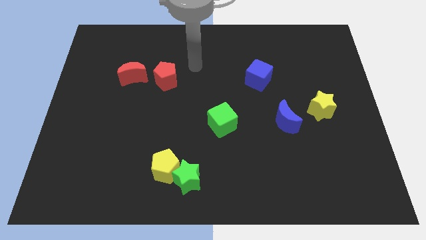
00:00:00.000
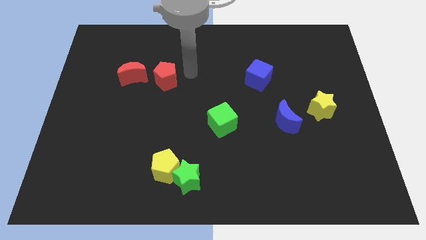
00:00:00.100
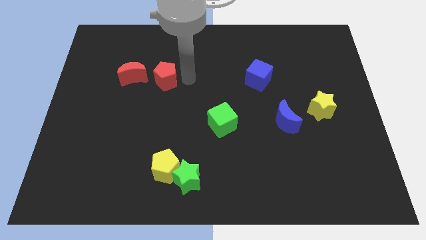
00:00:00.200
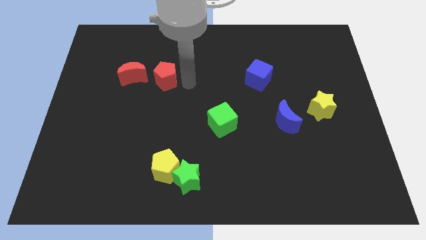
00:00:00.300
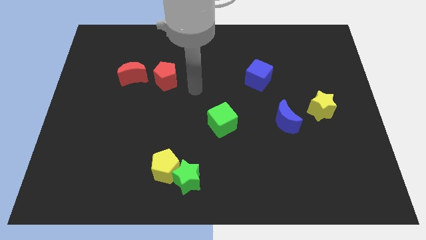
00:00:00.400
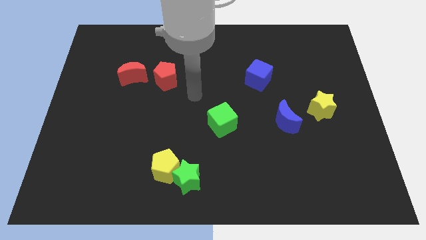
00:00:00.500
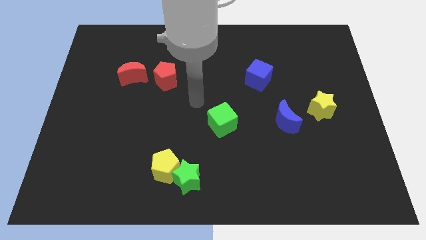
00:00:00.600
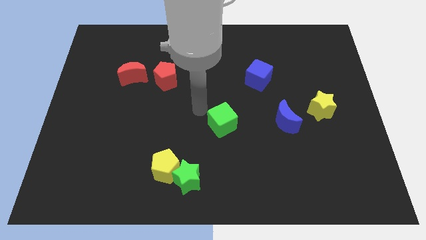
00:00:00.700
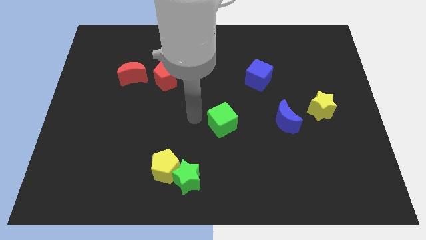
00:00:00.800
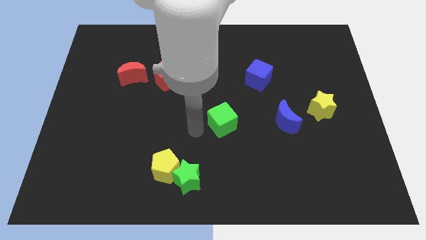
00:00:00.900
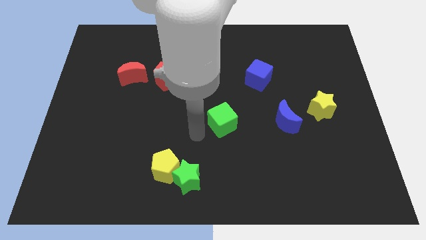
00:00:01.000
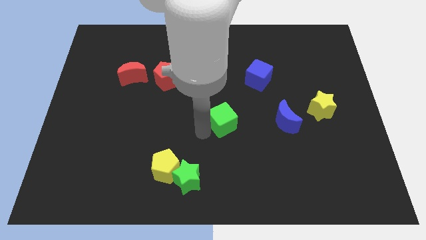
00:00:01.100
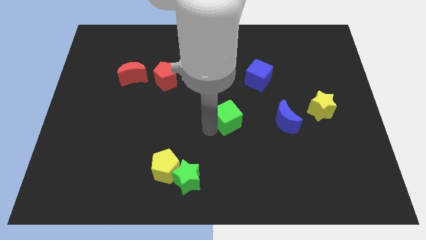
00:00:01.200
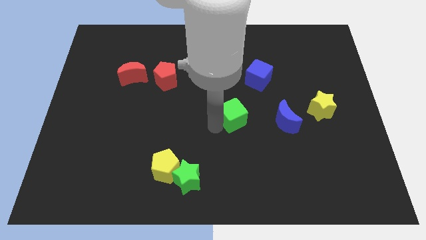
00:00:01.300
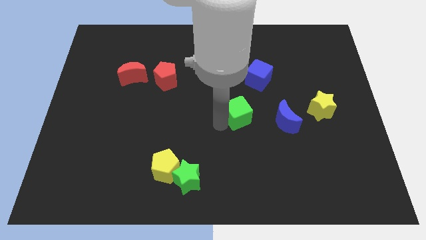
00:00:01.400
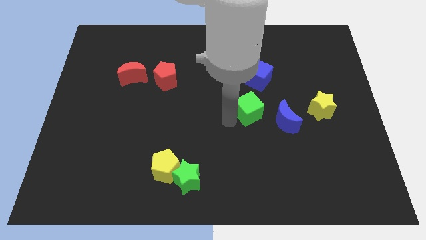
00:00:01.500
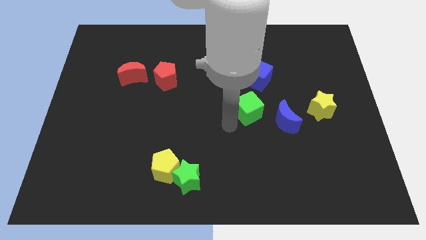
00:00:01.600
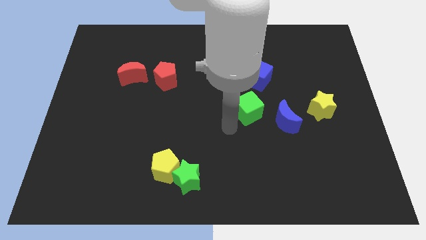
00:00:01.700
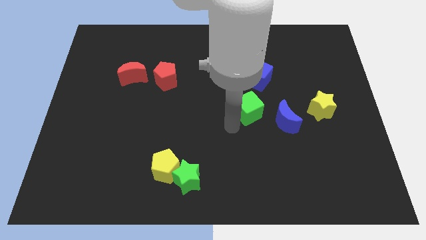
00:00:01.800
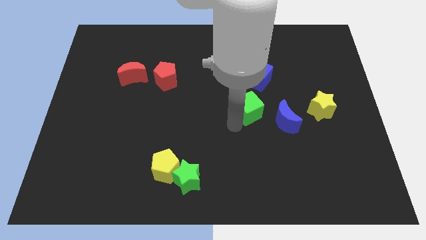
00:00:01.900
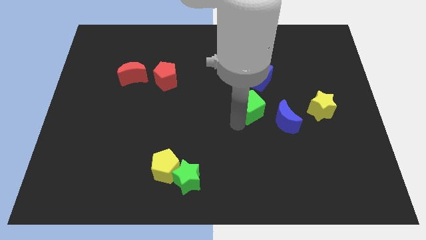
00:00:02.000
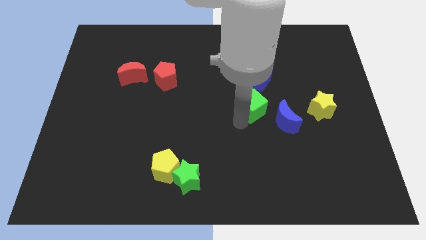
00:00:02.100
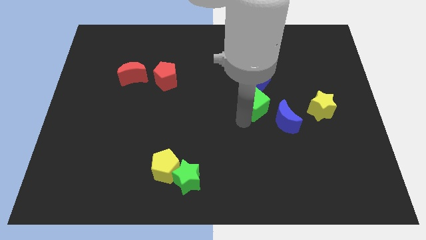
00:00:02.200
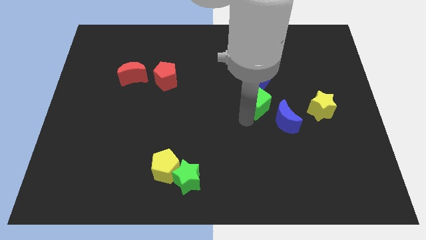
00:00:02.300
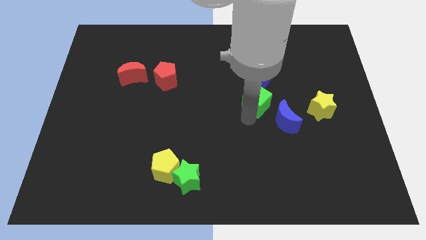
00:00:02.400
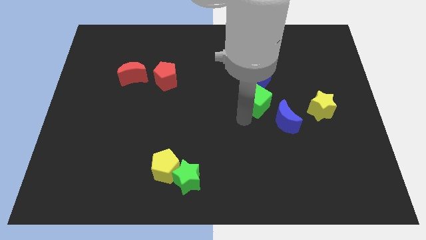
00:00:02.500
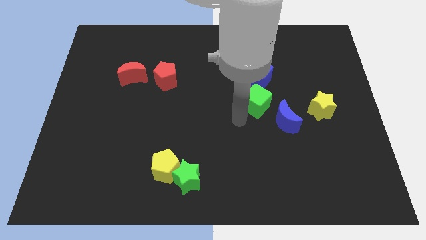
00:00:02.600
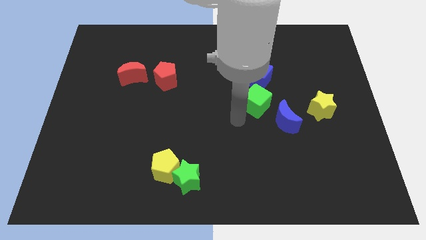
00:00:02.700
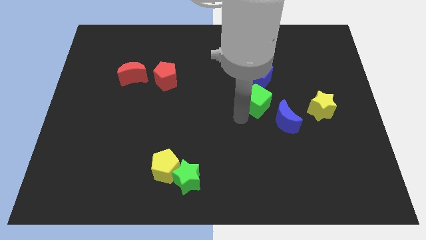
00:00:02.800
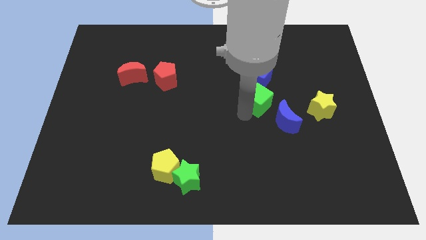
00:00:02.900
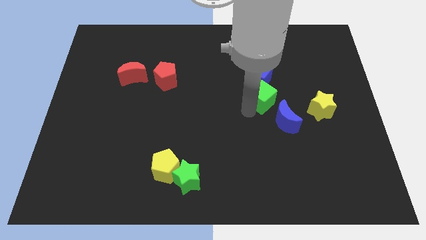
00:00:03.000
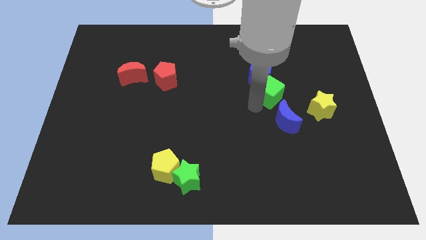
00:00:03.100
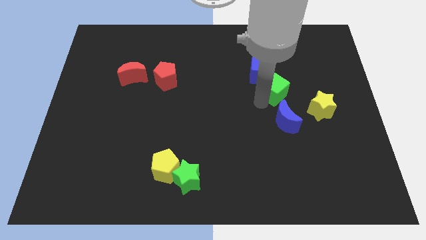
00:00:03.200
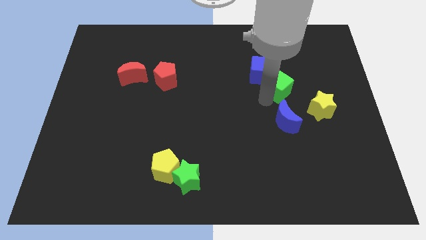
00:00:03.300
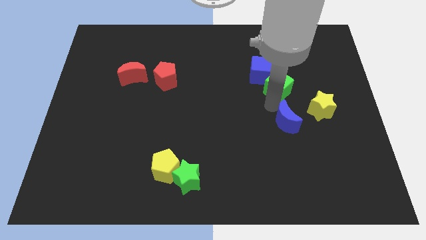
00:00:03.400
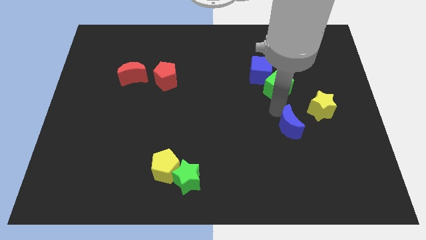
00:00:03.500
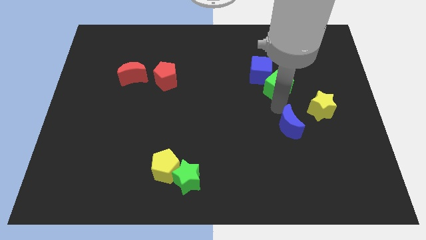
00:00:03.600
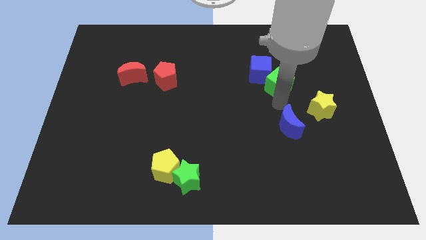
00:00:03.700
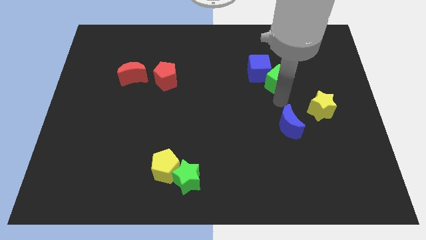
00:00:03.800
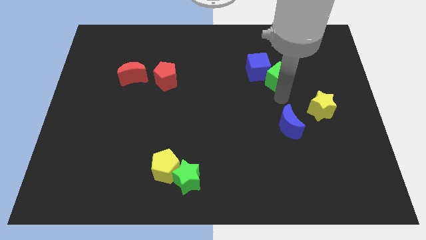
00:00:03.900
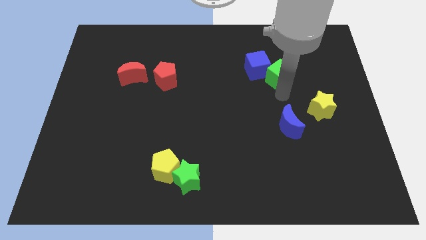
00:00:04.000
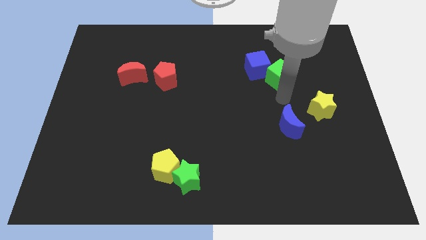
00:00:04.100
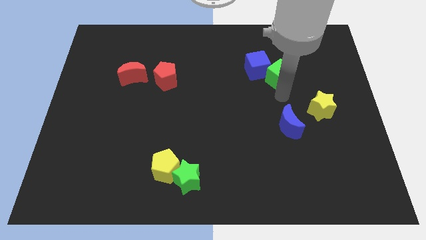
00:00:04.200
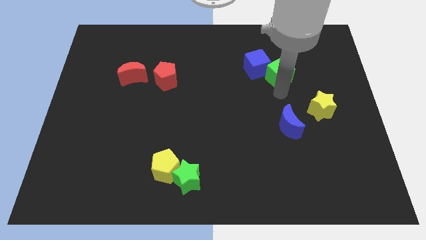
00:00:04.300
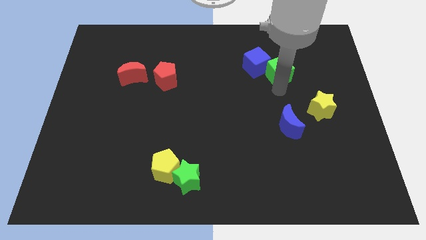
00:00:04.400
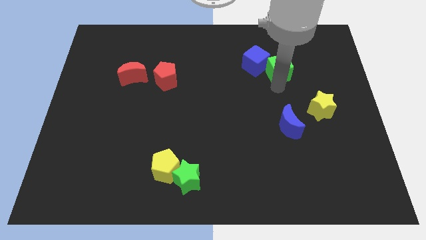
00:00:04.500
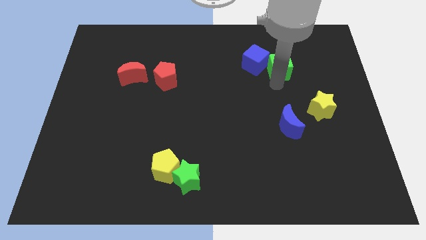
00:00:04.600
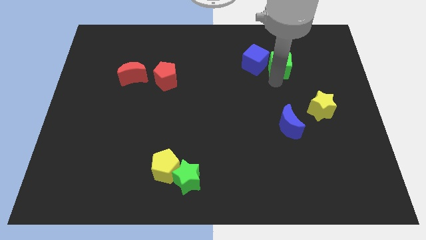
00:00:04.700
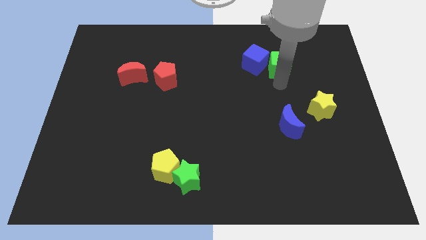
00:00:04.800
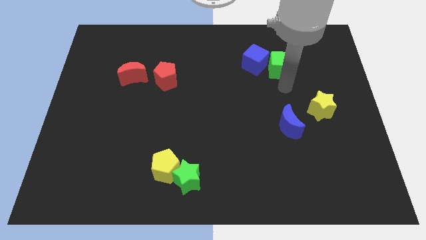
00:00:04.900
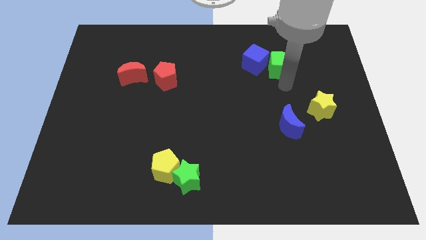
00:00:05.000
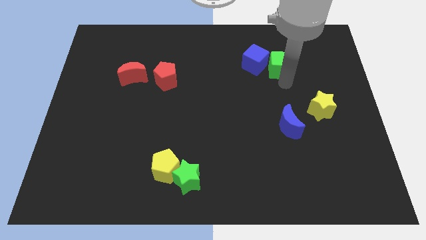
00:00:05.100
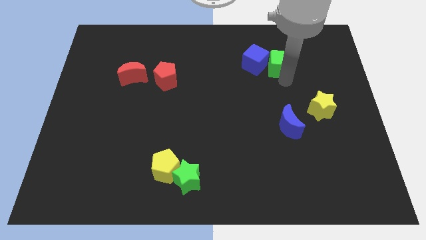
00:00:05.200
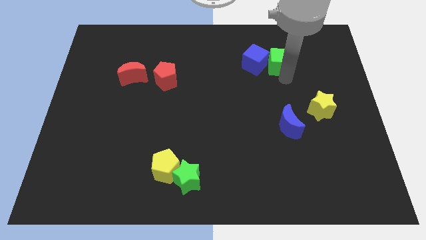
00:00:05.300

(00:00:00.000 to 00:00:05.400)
push the green cube to the top right of the blue cube

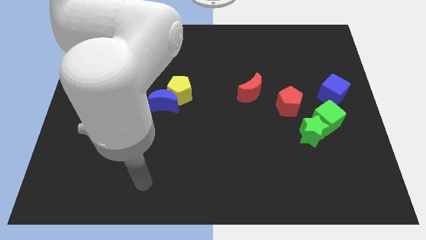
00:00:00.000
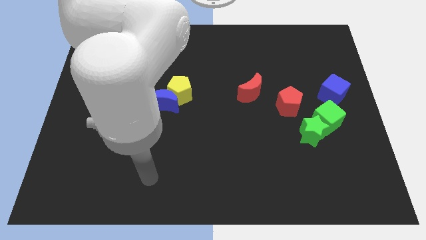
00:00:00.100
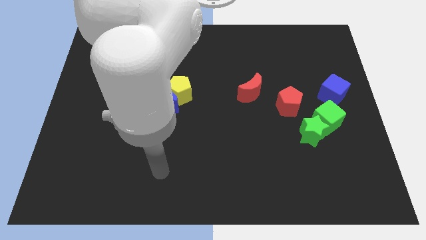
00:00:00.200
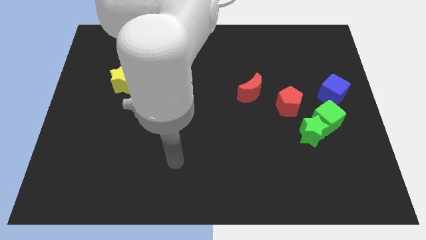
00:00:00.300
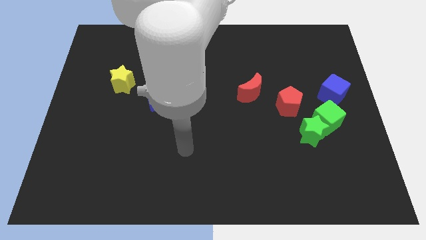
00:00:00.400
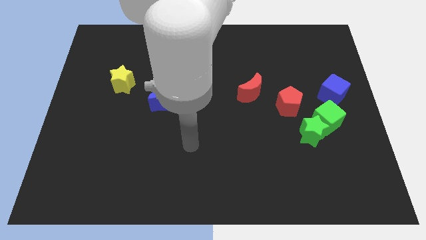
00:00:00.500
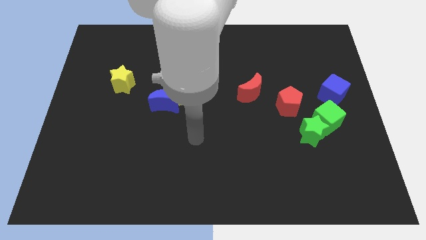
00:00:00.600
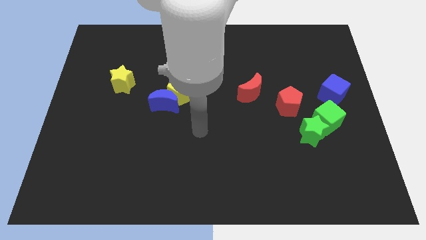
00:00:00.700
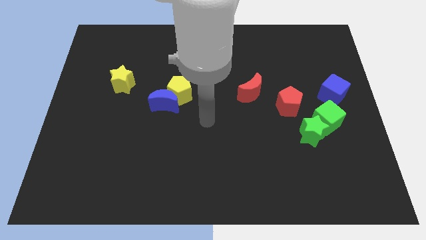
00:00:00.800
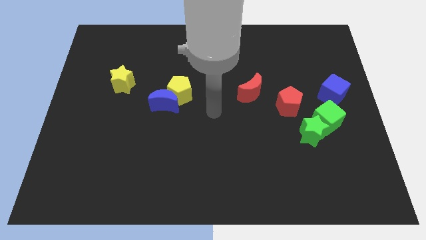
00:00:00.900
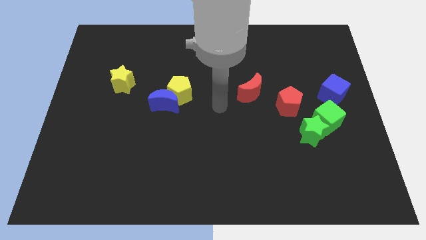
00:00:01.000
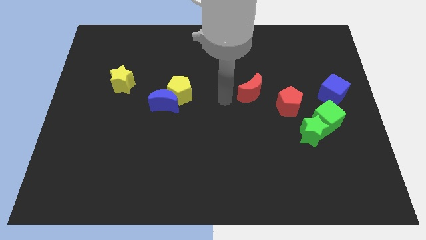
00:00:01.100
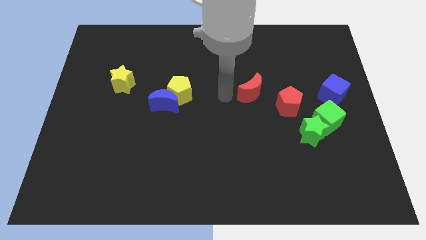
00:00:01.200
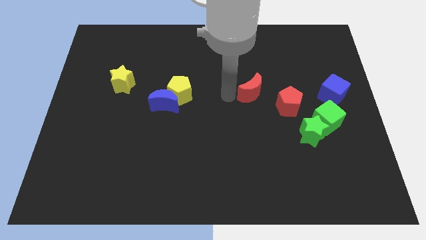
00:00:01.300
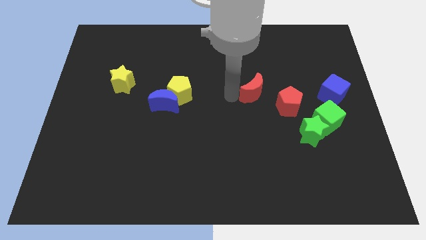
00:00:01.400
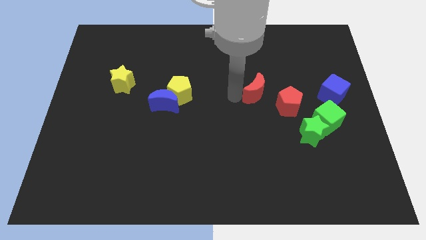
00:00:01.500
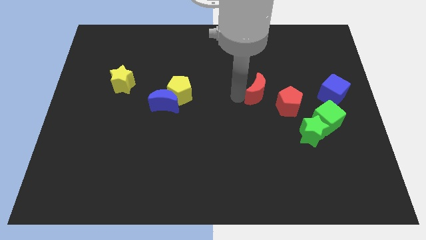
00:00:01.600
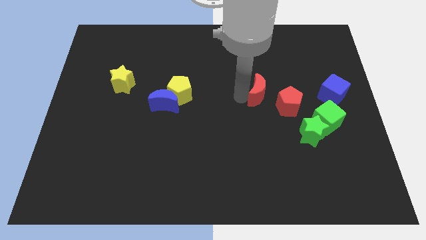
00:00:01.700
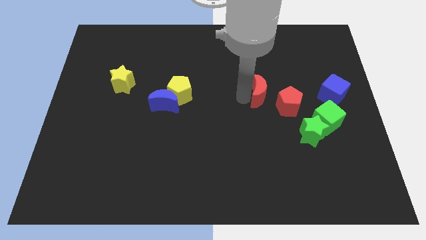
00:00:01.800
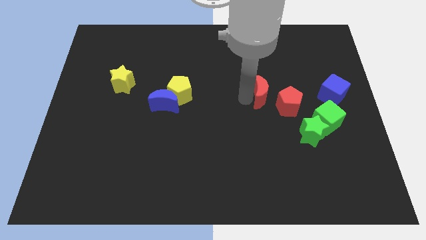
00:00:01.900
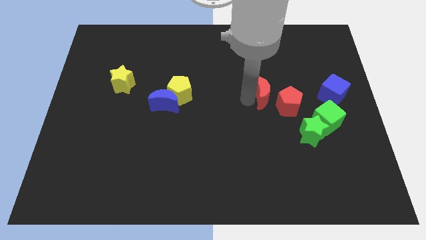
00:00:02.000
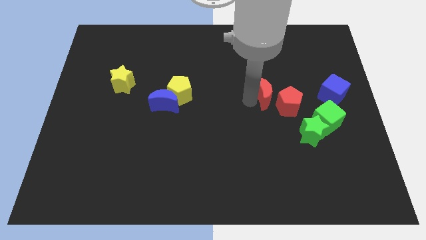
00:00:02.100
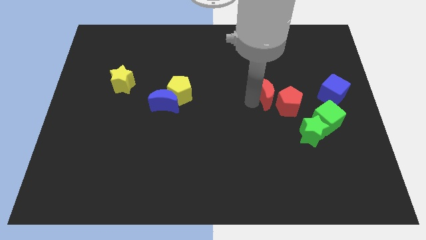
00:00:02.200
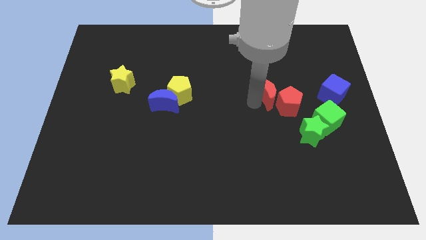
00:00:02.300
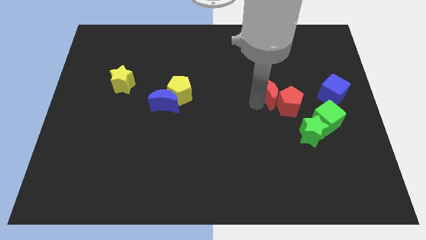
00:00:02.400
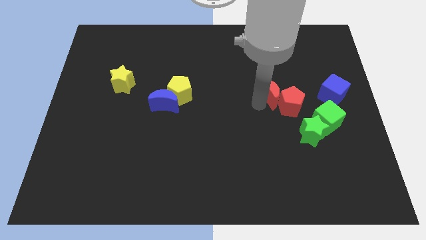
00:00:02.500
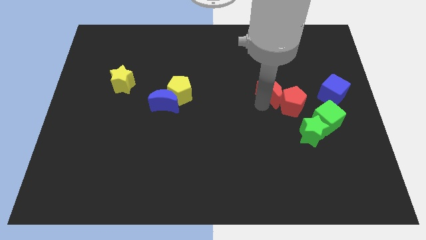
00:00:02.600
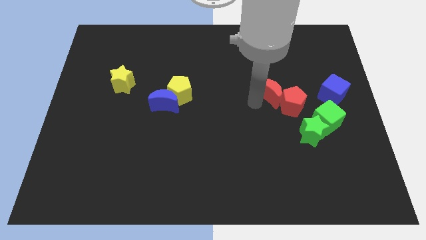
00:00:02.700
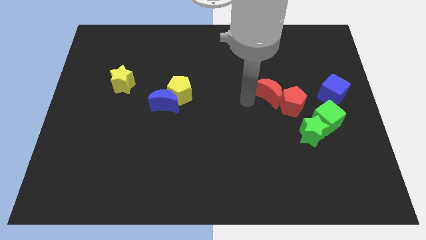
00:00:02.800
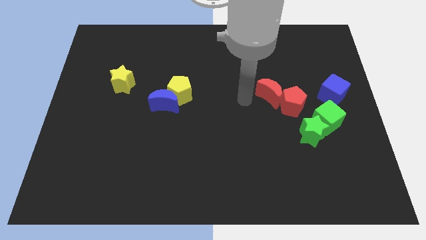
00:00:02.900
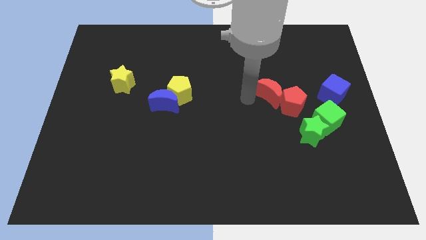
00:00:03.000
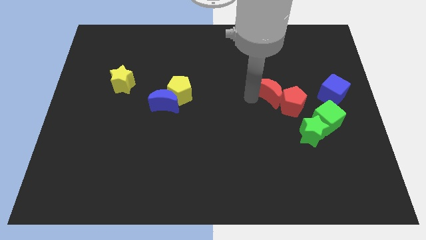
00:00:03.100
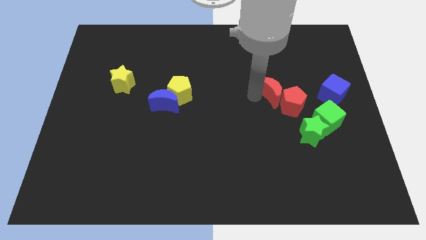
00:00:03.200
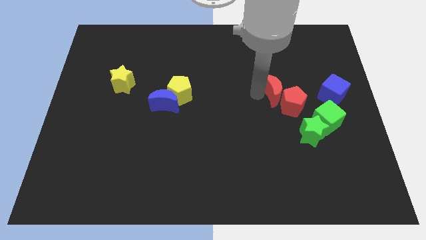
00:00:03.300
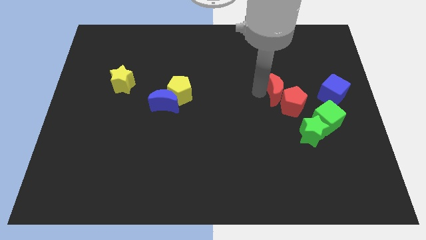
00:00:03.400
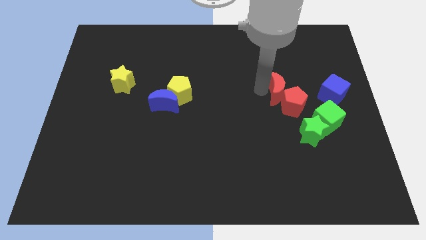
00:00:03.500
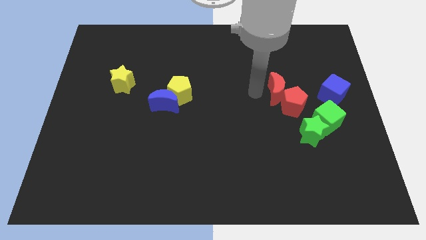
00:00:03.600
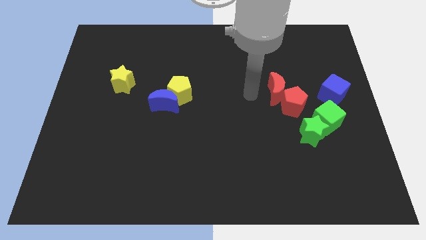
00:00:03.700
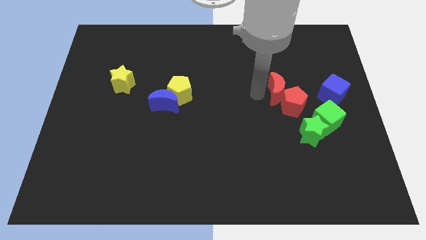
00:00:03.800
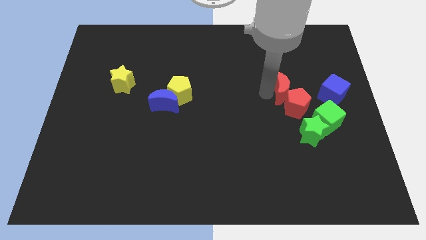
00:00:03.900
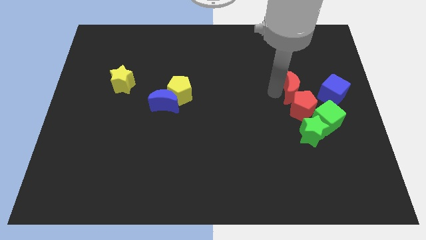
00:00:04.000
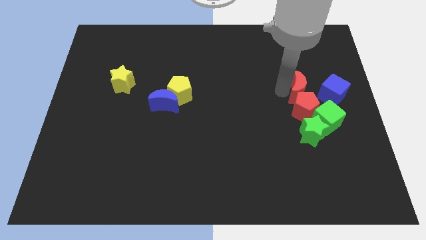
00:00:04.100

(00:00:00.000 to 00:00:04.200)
move the red moon to the top right side of the red pentagon
